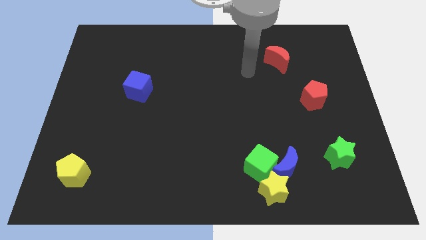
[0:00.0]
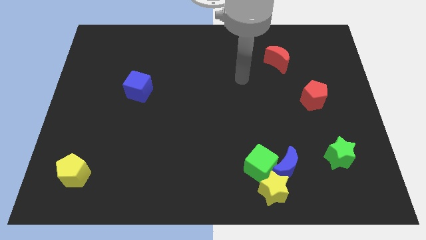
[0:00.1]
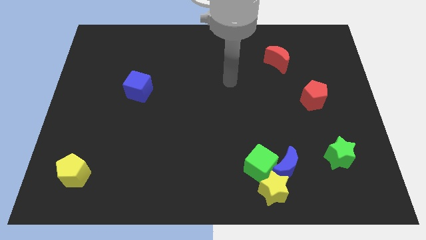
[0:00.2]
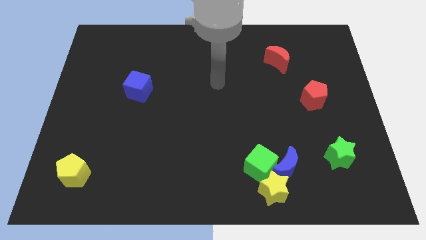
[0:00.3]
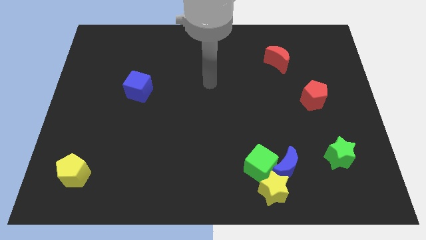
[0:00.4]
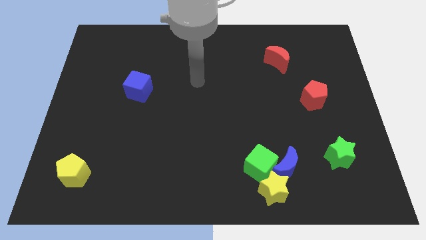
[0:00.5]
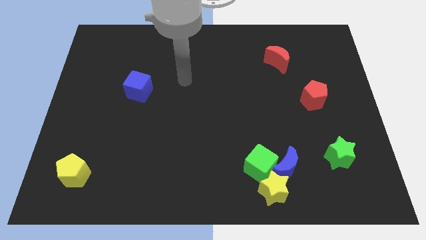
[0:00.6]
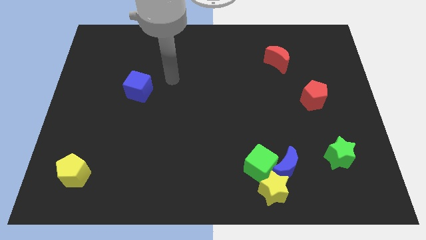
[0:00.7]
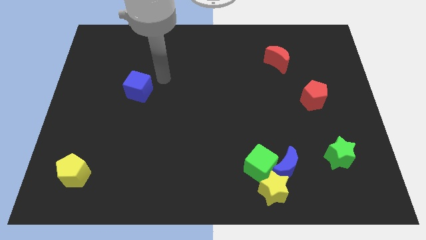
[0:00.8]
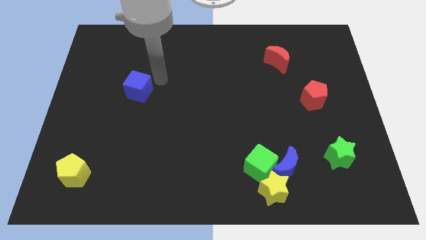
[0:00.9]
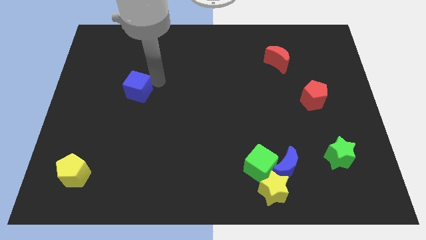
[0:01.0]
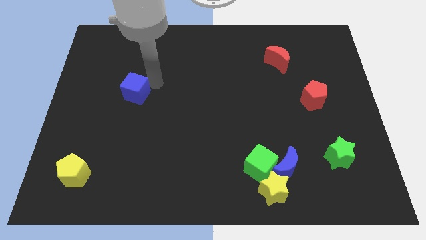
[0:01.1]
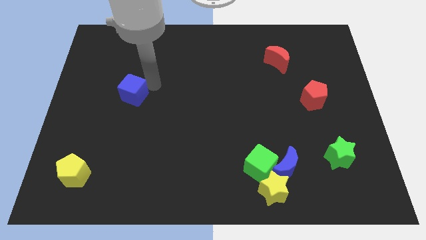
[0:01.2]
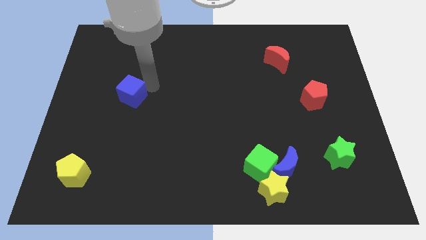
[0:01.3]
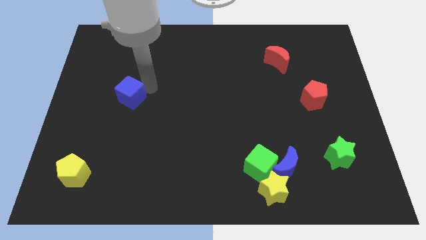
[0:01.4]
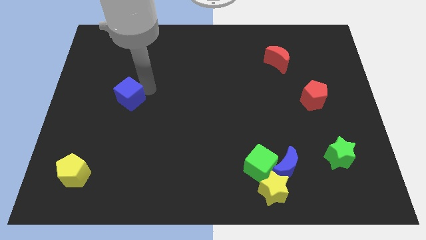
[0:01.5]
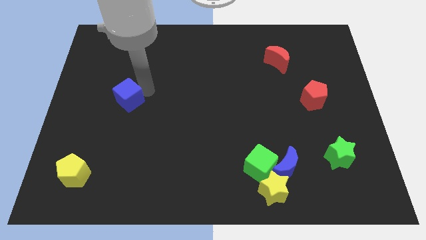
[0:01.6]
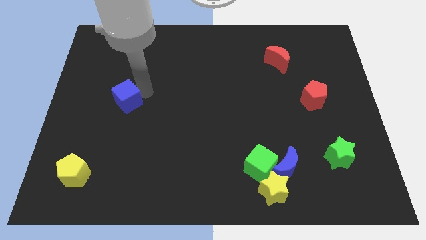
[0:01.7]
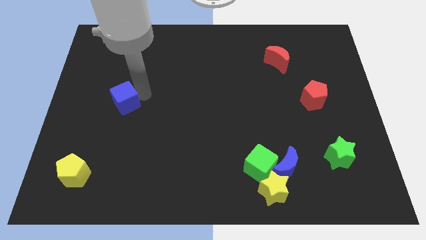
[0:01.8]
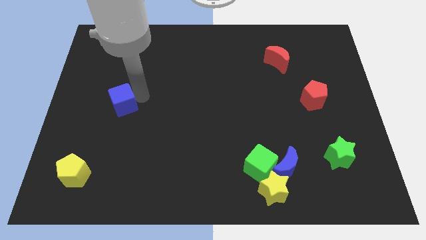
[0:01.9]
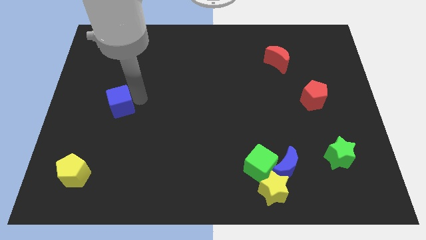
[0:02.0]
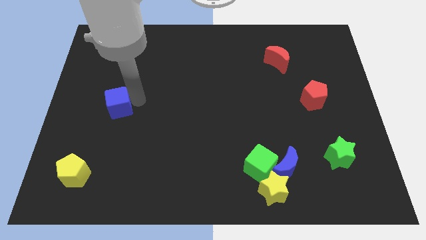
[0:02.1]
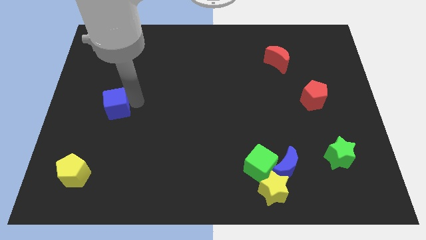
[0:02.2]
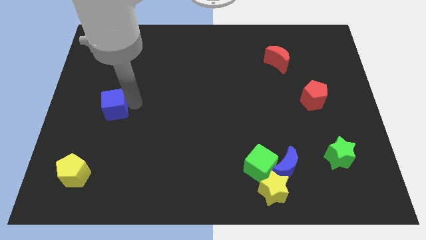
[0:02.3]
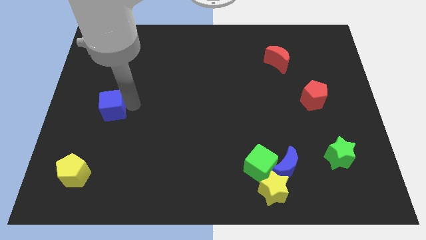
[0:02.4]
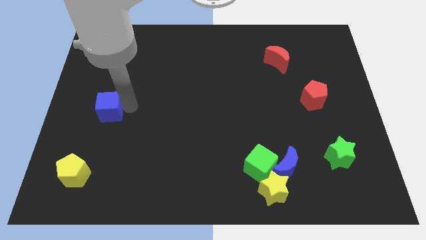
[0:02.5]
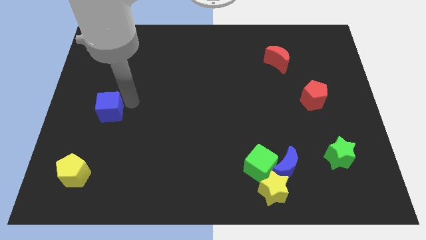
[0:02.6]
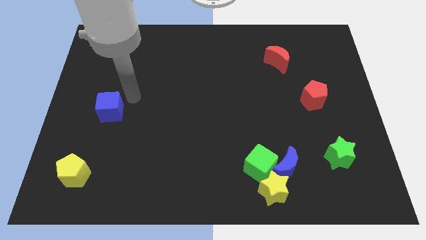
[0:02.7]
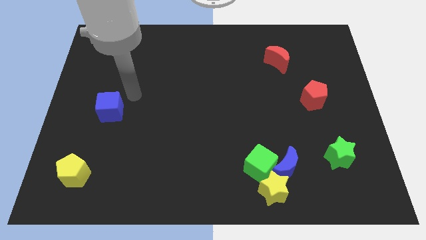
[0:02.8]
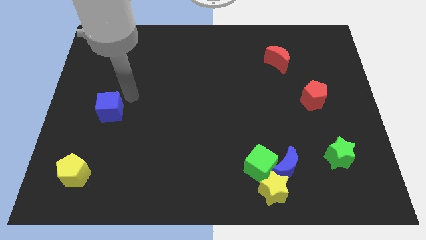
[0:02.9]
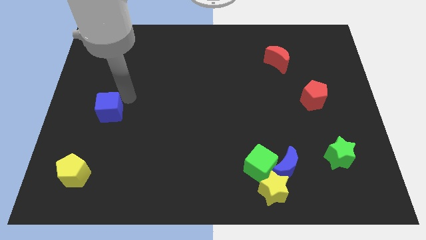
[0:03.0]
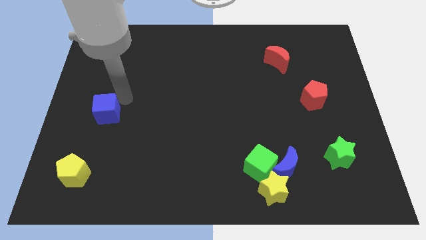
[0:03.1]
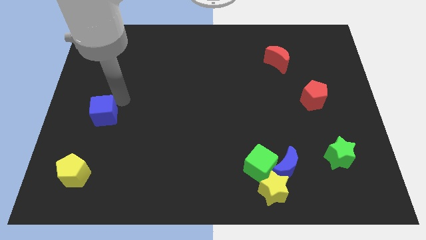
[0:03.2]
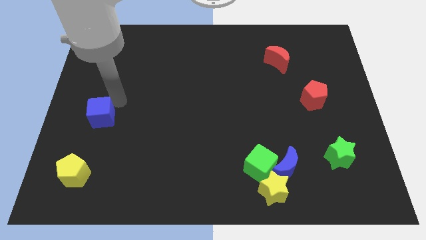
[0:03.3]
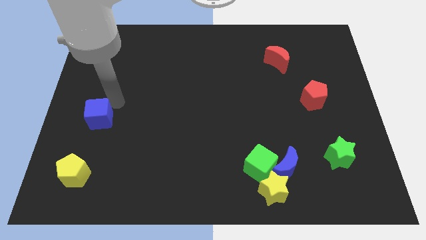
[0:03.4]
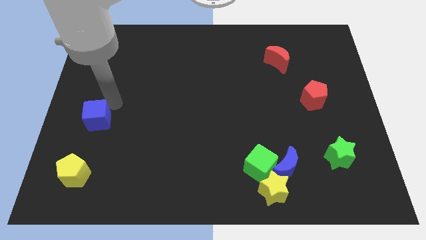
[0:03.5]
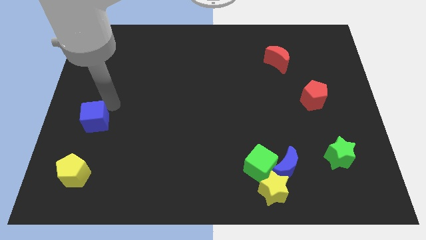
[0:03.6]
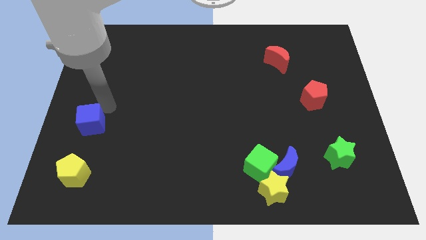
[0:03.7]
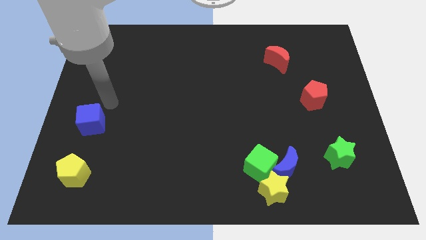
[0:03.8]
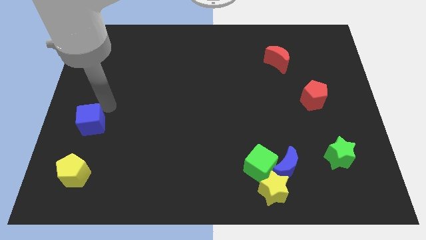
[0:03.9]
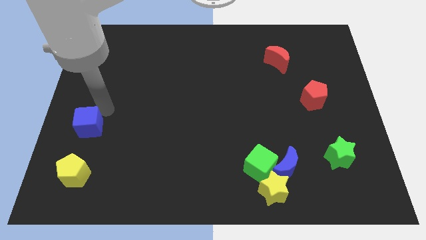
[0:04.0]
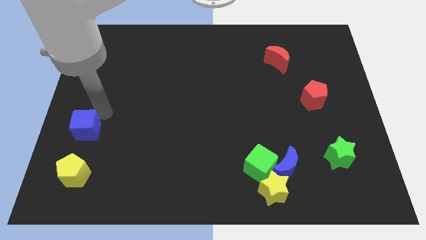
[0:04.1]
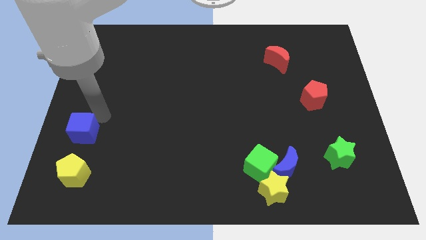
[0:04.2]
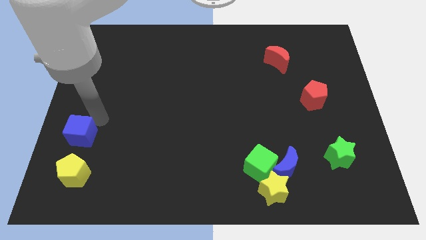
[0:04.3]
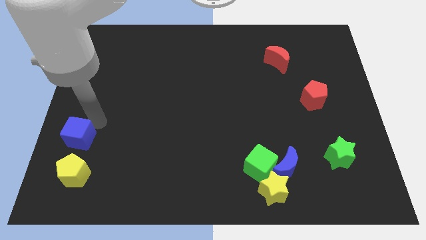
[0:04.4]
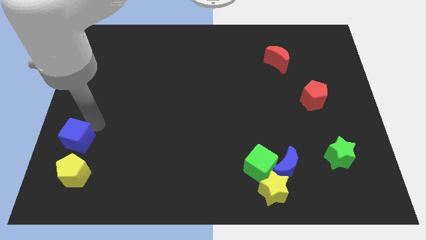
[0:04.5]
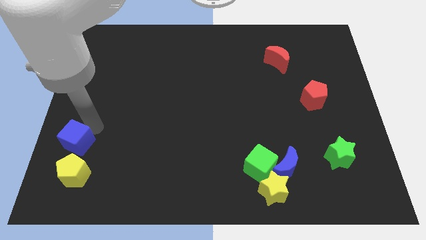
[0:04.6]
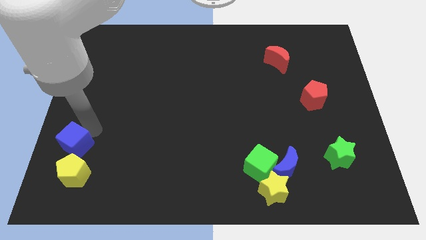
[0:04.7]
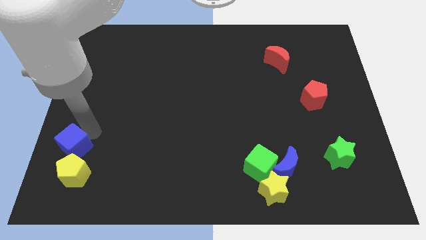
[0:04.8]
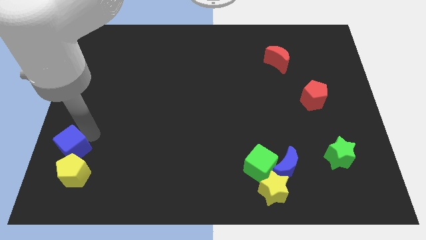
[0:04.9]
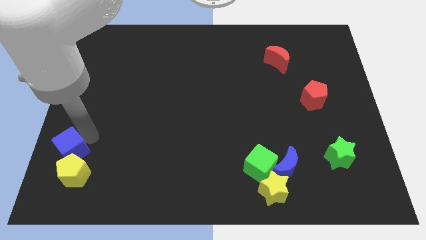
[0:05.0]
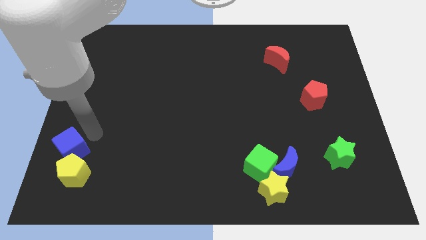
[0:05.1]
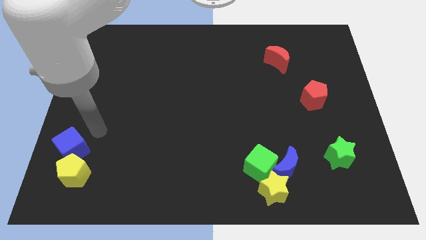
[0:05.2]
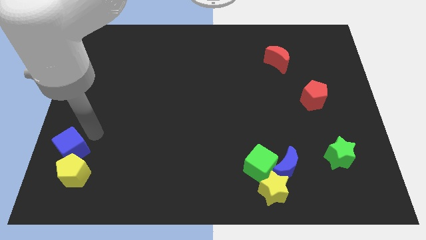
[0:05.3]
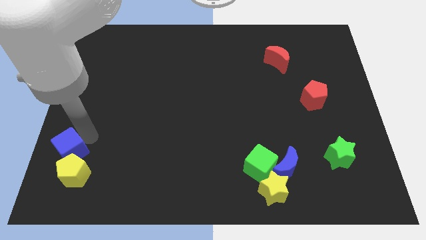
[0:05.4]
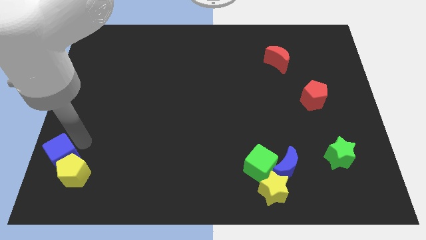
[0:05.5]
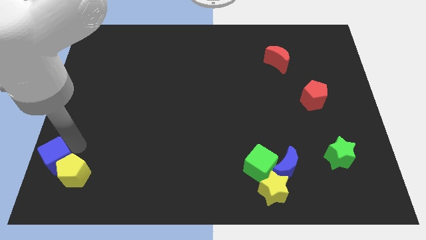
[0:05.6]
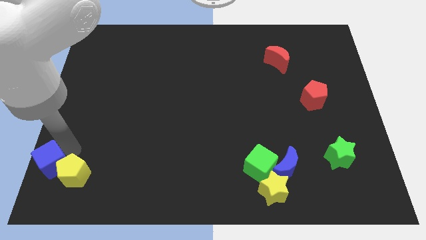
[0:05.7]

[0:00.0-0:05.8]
slide the blue cube to the bottom left

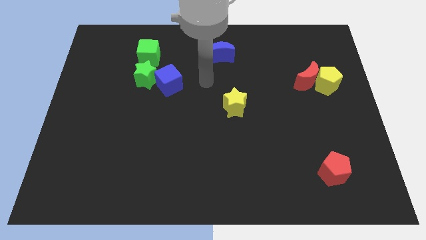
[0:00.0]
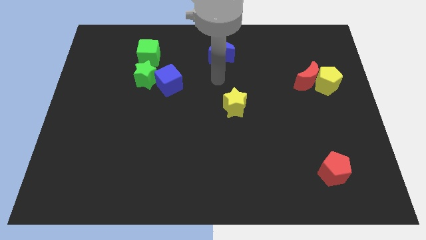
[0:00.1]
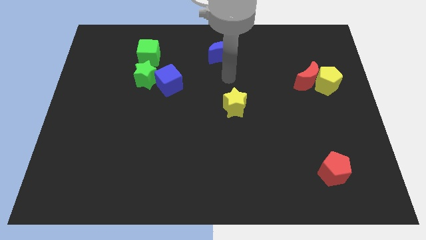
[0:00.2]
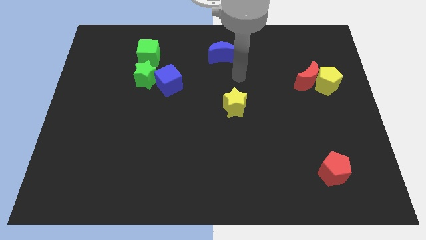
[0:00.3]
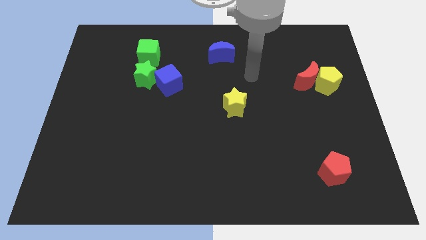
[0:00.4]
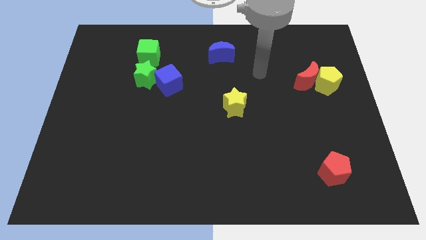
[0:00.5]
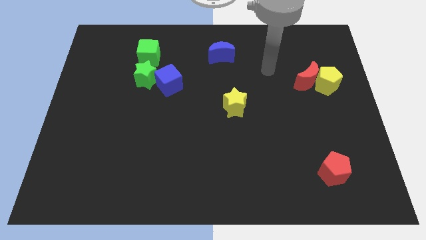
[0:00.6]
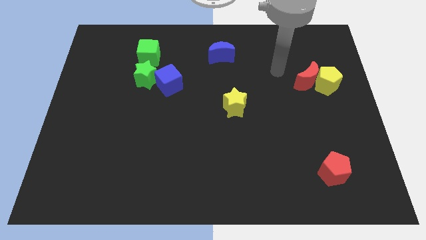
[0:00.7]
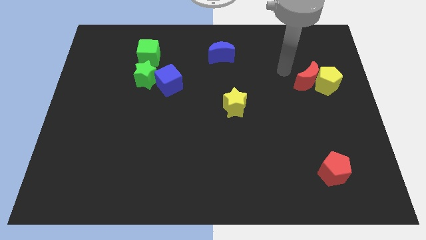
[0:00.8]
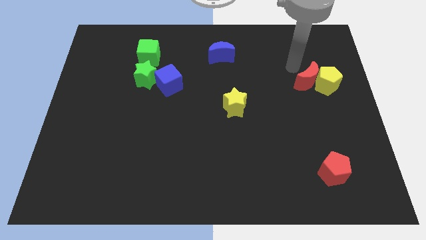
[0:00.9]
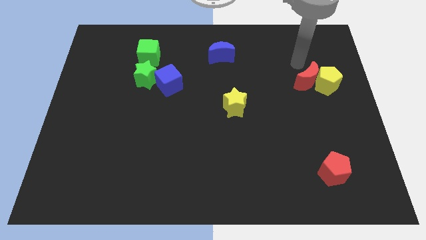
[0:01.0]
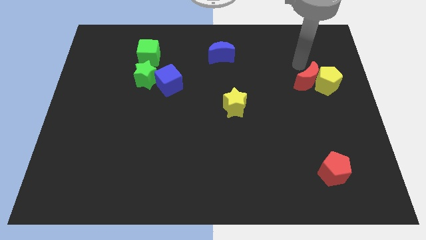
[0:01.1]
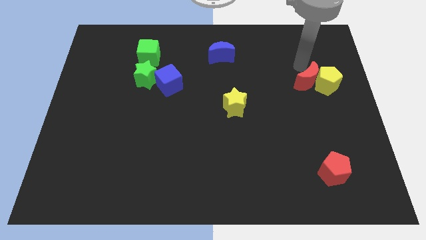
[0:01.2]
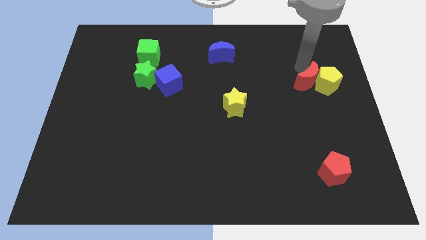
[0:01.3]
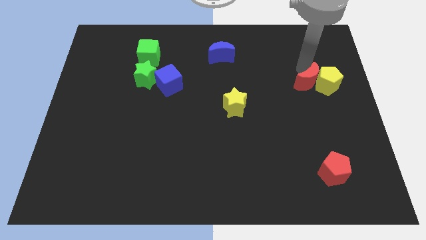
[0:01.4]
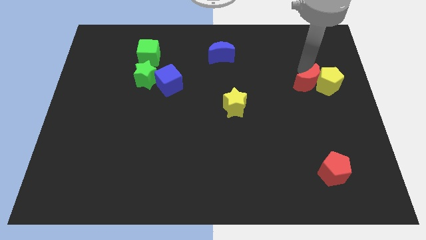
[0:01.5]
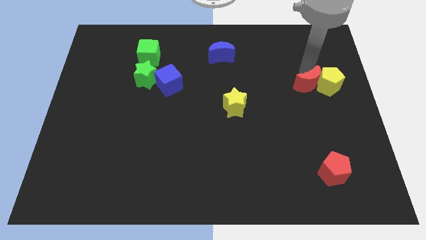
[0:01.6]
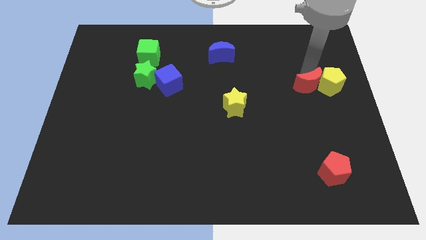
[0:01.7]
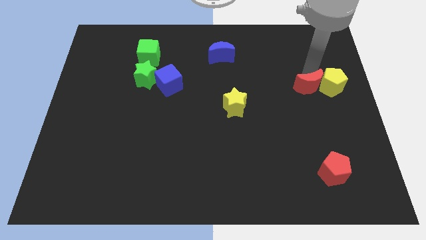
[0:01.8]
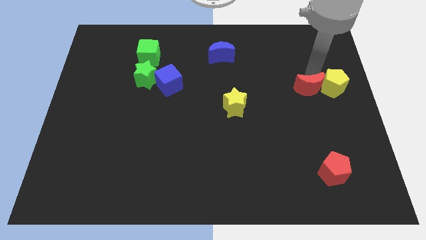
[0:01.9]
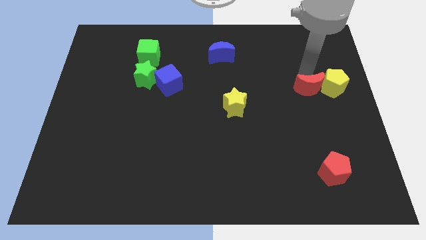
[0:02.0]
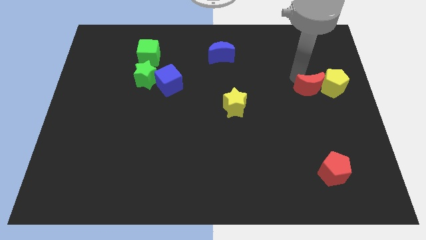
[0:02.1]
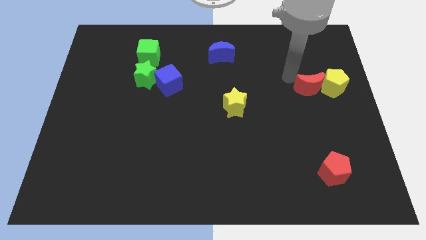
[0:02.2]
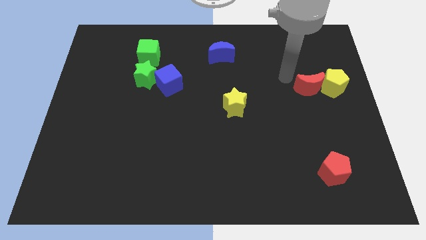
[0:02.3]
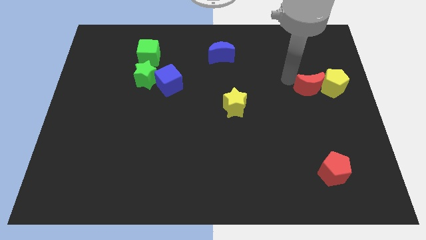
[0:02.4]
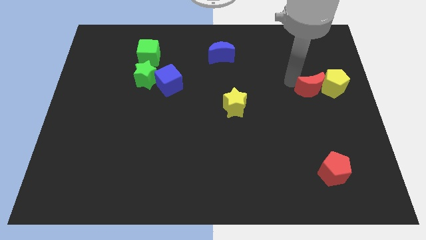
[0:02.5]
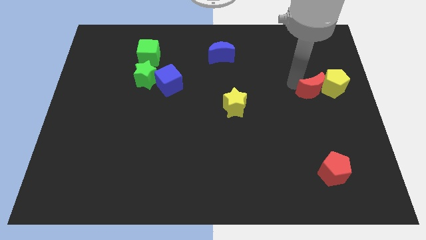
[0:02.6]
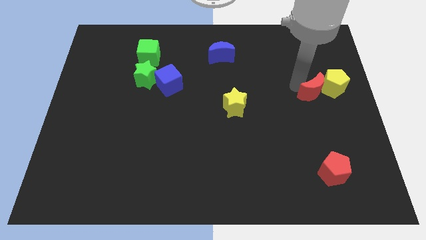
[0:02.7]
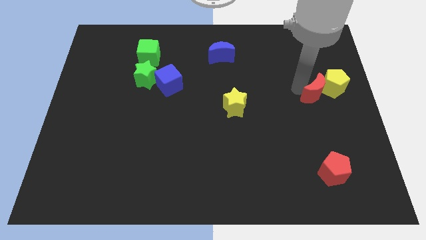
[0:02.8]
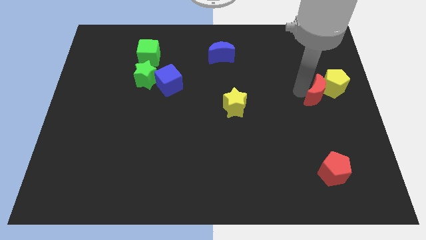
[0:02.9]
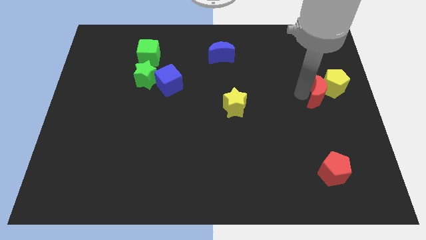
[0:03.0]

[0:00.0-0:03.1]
put the red moon to the right side
